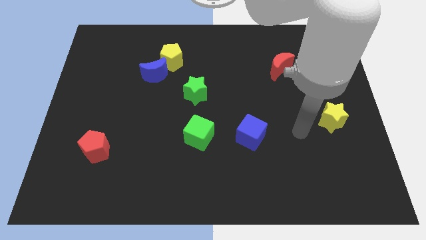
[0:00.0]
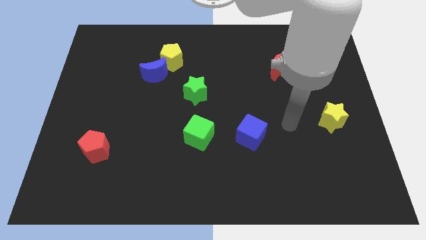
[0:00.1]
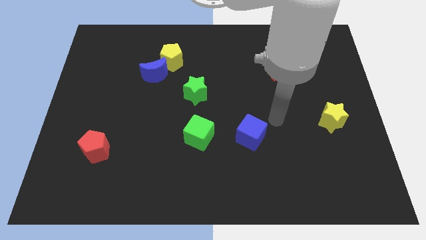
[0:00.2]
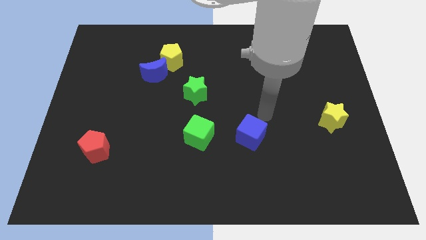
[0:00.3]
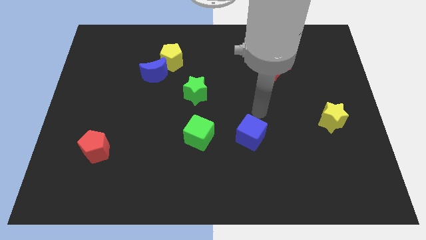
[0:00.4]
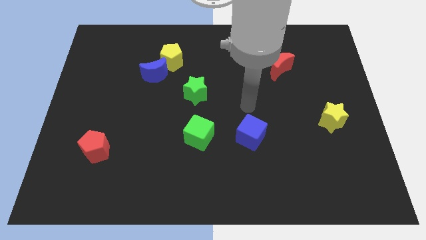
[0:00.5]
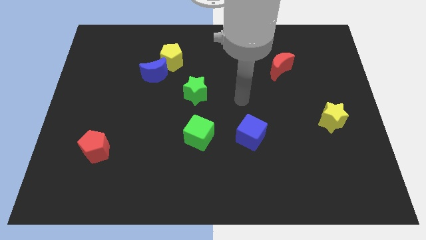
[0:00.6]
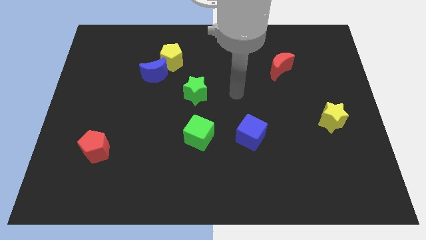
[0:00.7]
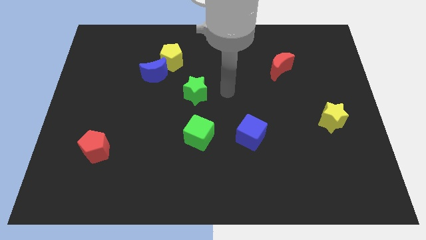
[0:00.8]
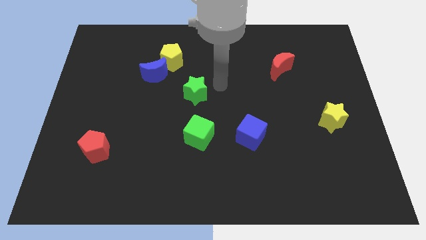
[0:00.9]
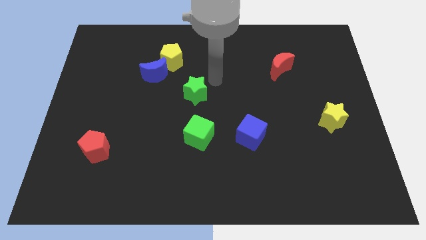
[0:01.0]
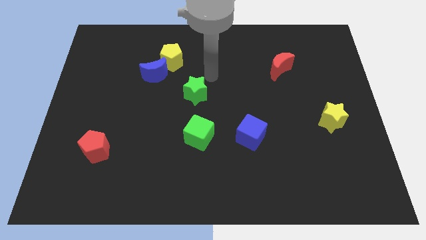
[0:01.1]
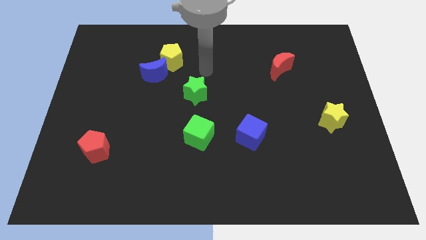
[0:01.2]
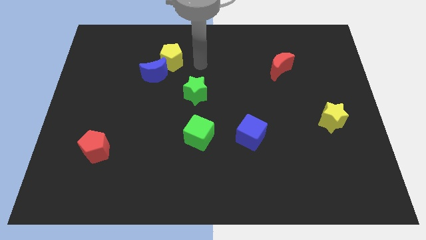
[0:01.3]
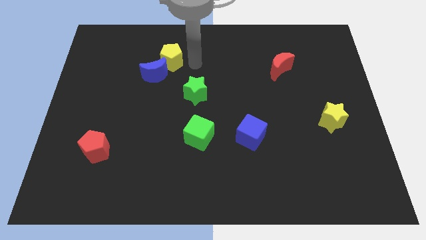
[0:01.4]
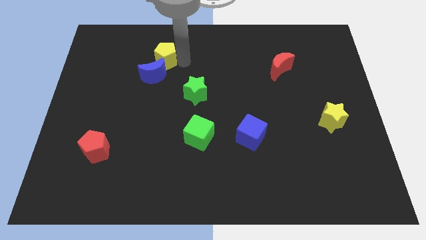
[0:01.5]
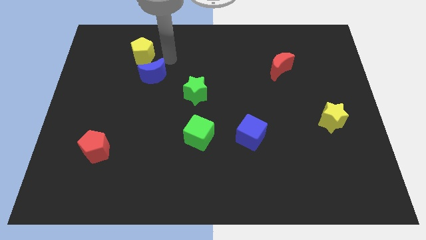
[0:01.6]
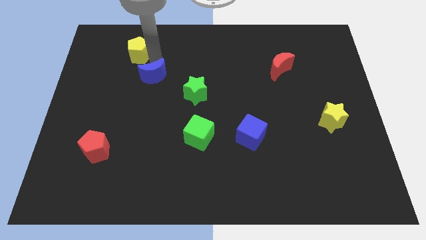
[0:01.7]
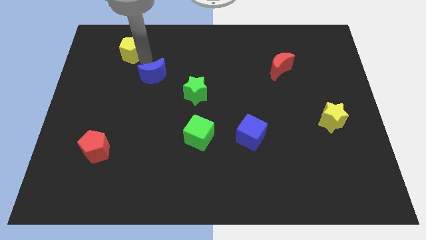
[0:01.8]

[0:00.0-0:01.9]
separate the blue moon from the yellow pentagon

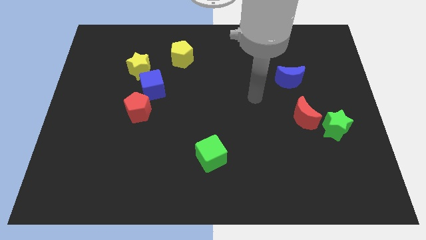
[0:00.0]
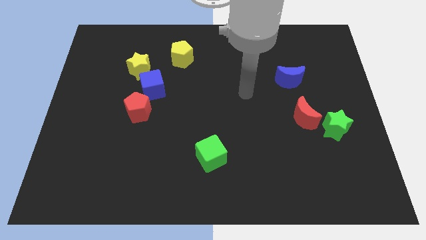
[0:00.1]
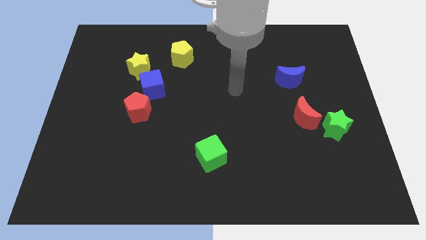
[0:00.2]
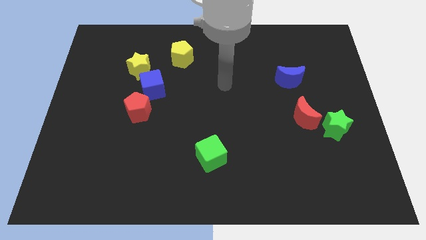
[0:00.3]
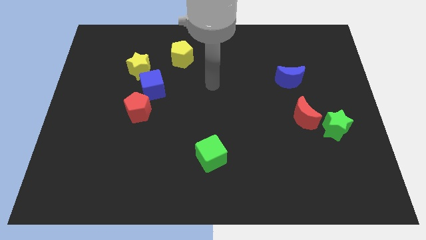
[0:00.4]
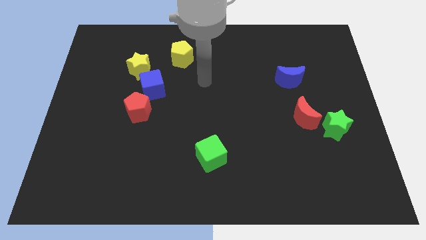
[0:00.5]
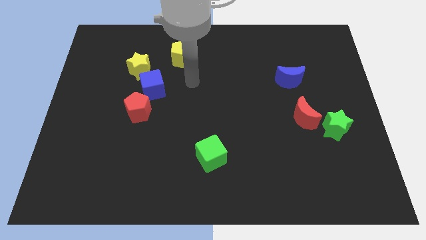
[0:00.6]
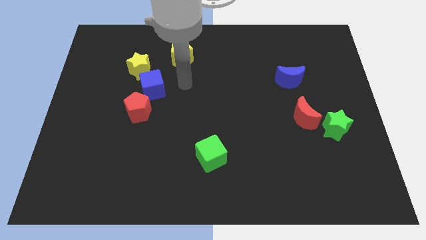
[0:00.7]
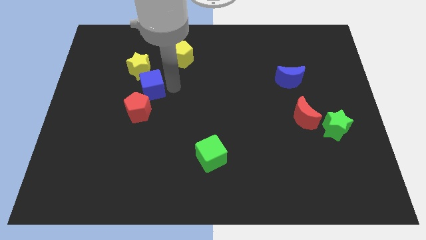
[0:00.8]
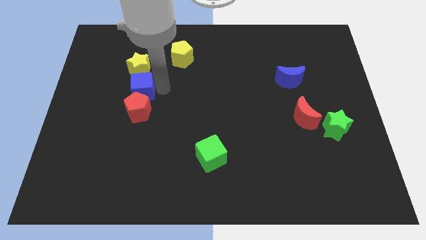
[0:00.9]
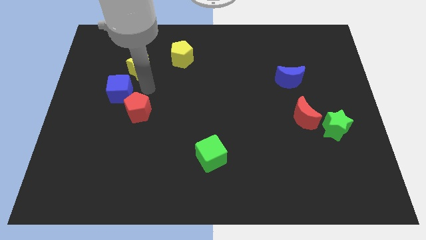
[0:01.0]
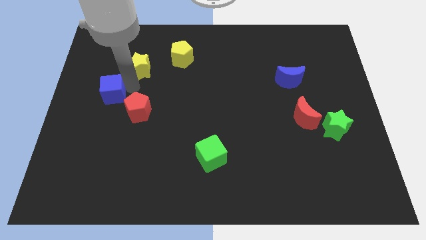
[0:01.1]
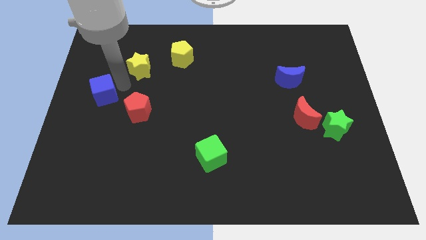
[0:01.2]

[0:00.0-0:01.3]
pull the yellow star apart from the blue cube

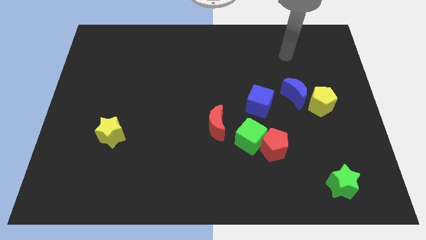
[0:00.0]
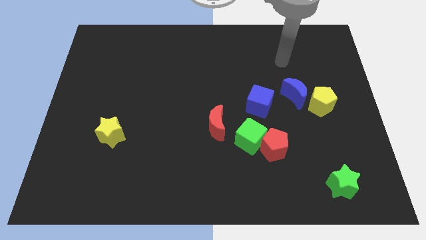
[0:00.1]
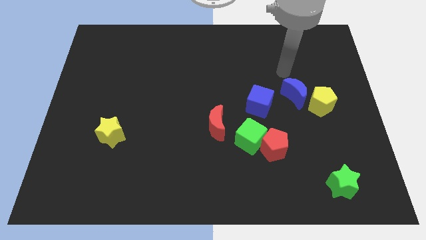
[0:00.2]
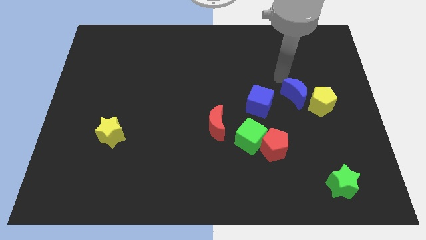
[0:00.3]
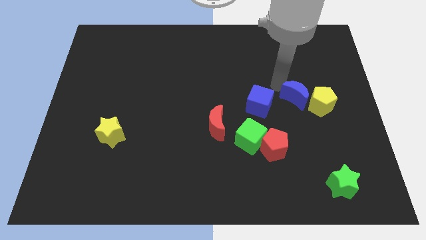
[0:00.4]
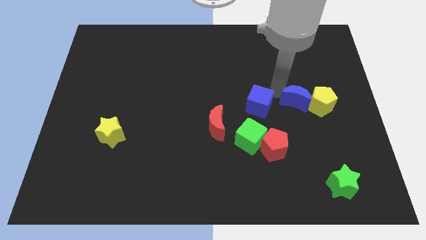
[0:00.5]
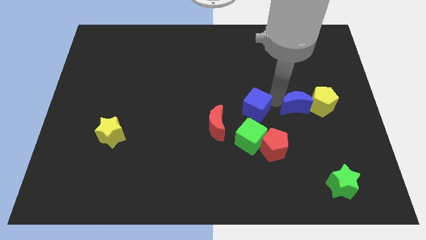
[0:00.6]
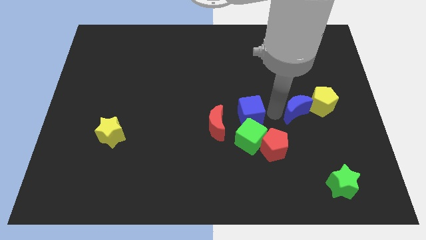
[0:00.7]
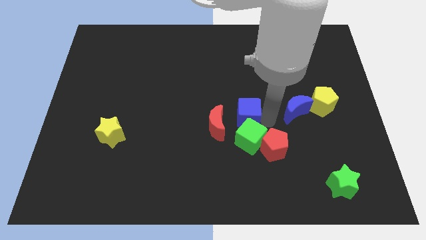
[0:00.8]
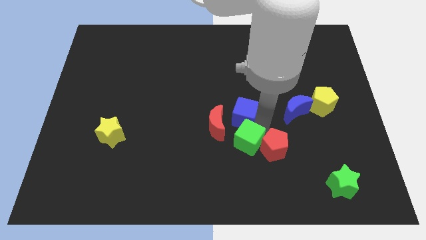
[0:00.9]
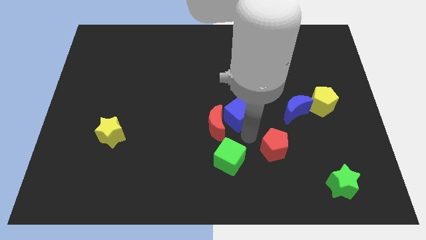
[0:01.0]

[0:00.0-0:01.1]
move the red pentagon away from the green cube

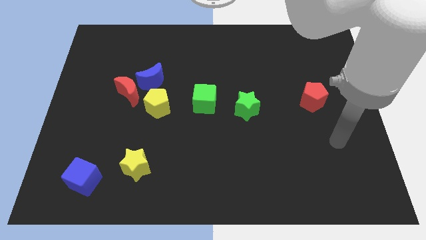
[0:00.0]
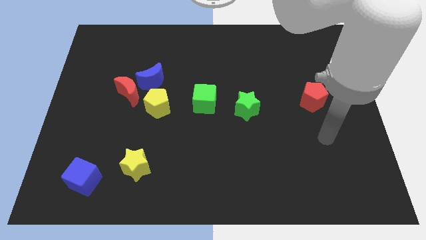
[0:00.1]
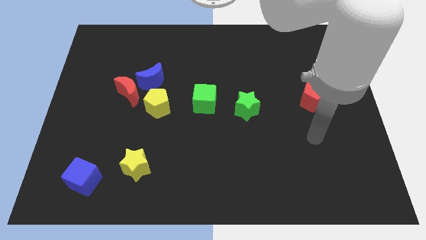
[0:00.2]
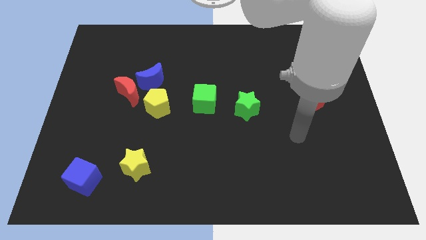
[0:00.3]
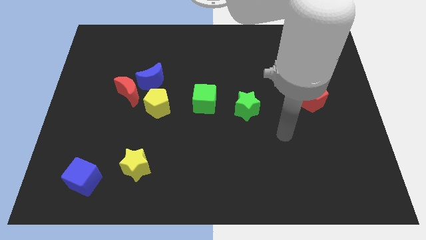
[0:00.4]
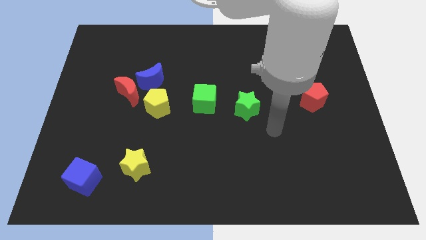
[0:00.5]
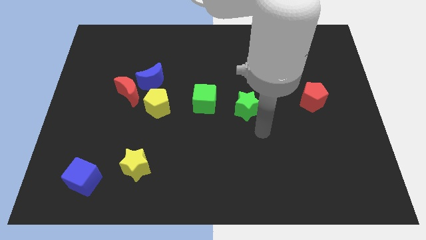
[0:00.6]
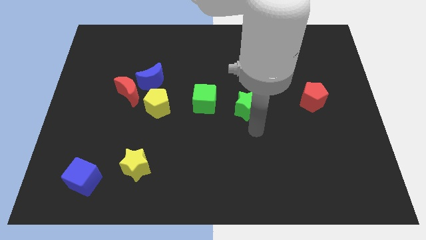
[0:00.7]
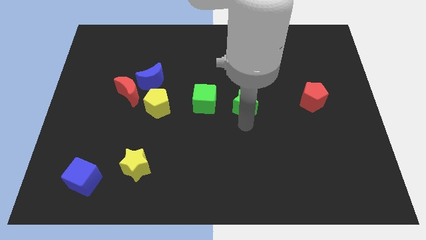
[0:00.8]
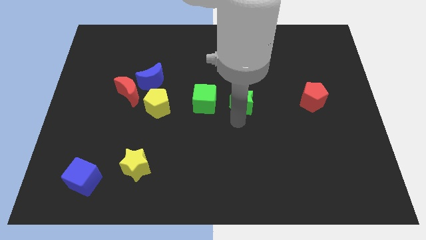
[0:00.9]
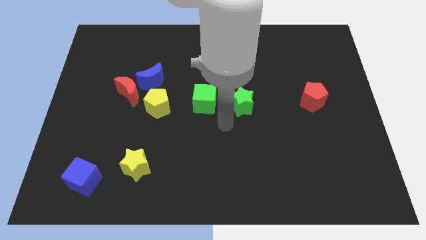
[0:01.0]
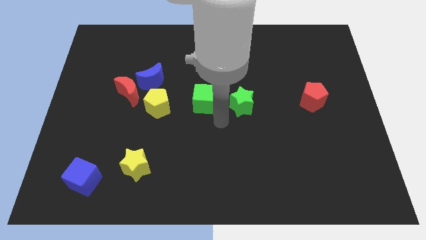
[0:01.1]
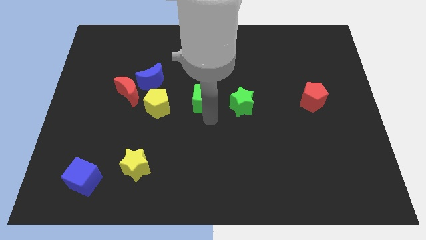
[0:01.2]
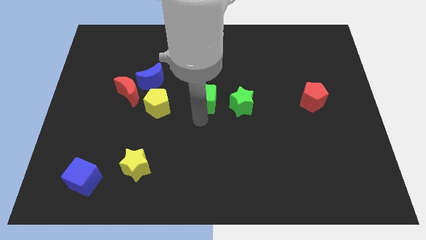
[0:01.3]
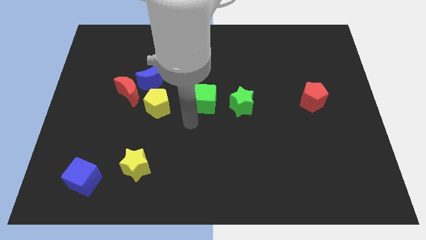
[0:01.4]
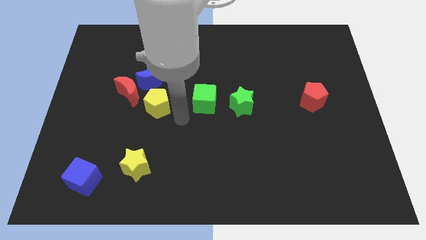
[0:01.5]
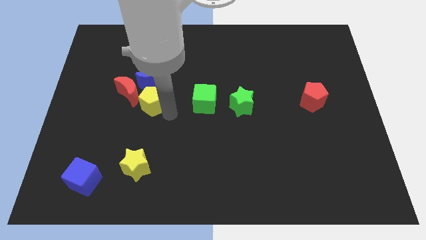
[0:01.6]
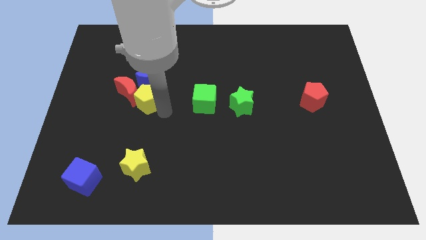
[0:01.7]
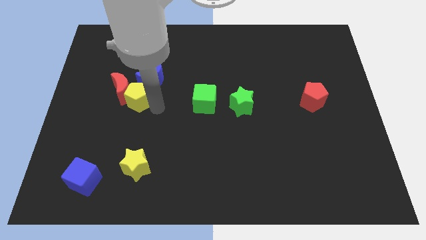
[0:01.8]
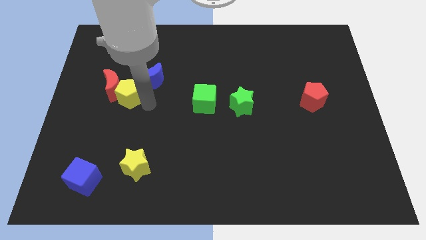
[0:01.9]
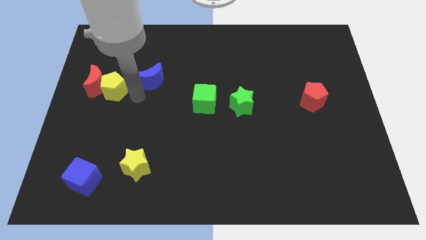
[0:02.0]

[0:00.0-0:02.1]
move the blue moon away from the red moon and yellow pentagon

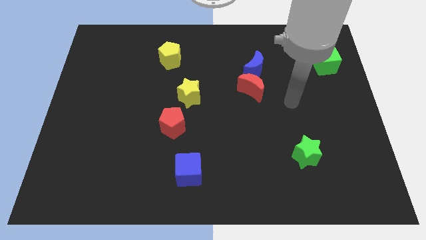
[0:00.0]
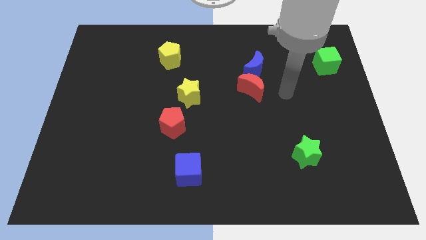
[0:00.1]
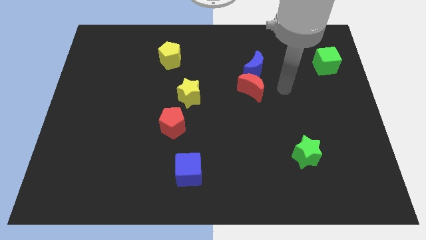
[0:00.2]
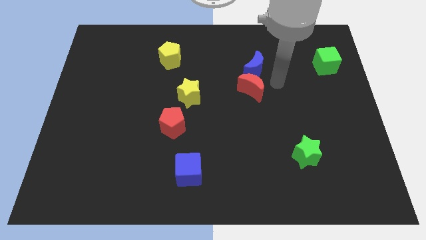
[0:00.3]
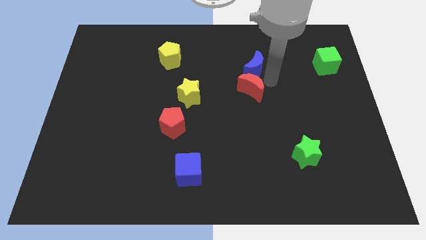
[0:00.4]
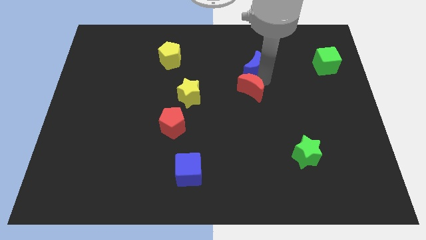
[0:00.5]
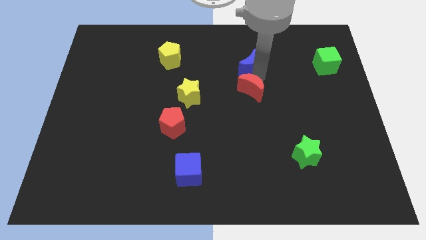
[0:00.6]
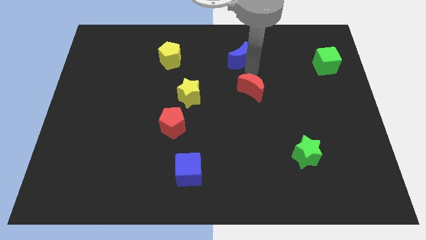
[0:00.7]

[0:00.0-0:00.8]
move the red moon away from the blue moon

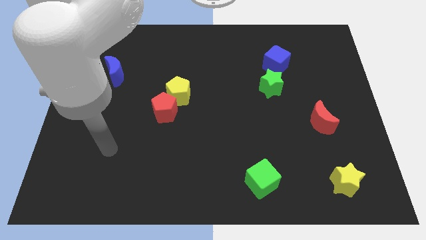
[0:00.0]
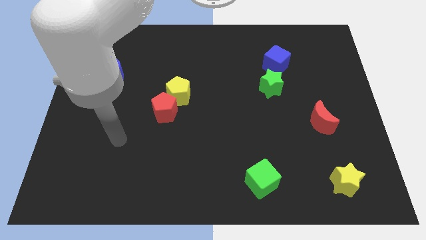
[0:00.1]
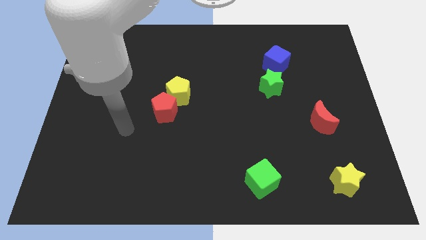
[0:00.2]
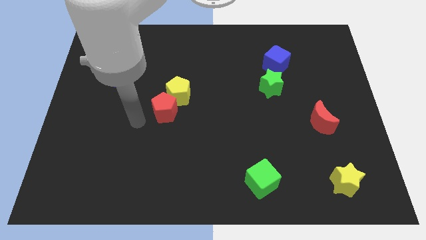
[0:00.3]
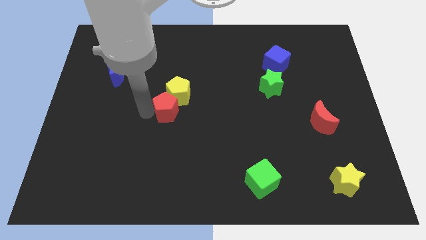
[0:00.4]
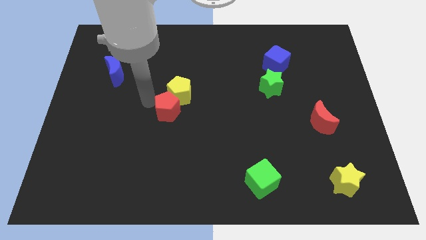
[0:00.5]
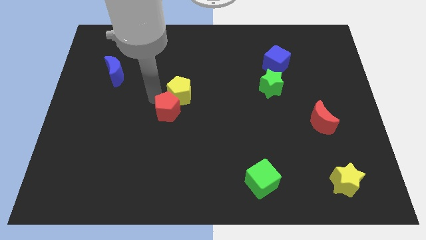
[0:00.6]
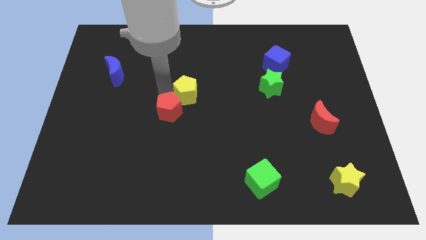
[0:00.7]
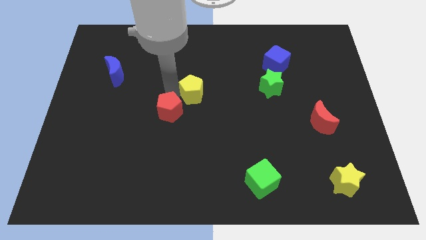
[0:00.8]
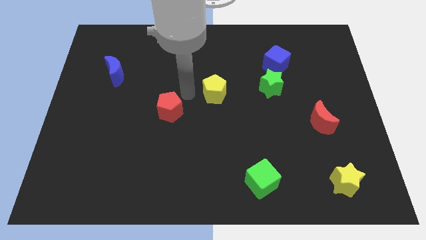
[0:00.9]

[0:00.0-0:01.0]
pull the red pentagon apart from the yellow pentagon

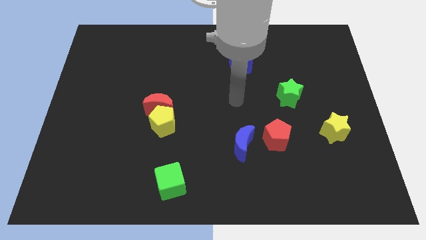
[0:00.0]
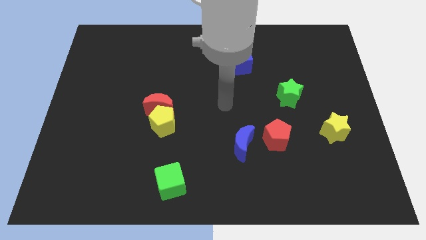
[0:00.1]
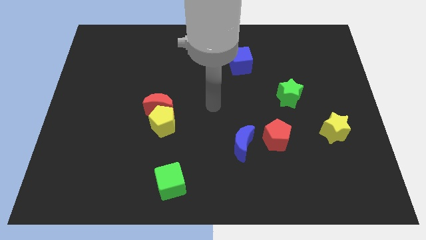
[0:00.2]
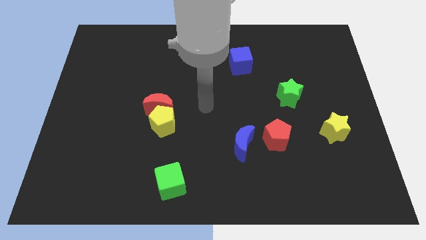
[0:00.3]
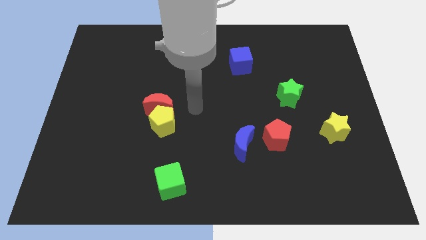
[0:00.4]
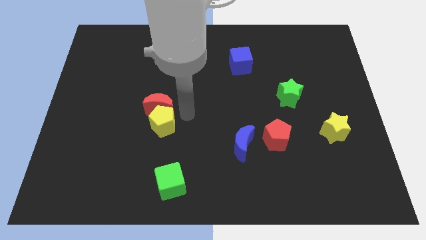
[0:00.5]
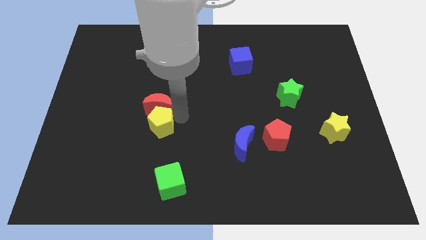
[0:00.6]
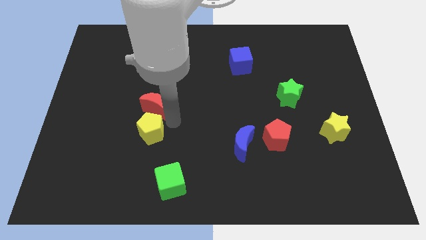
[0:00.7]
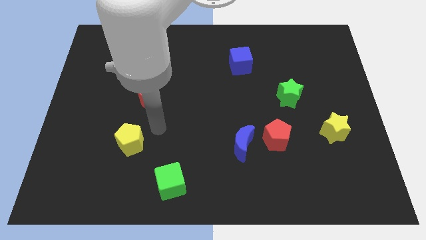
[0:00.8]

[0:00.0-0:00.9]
pull the red moon apart from the yellow pentagon

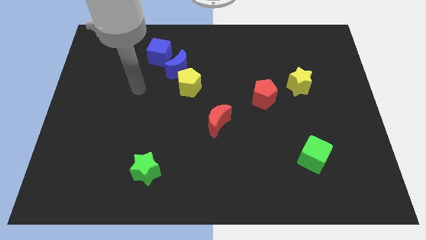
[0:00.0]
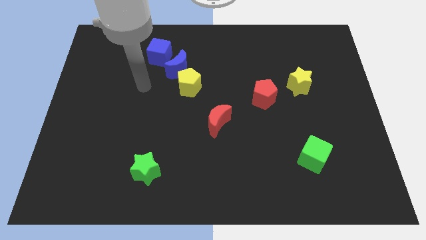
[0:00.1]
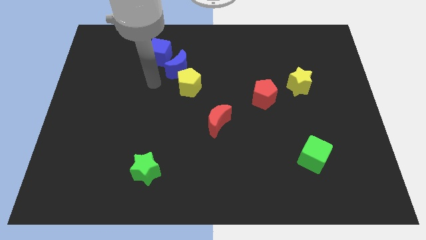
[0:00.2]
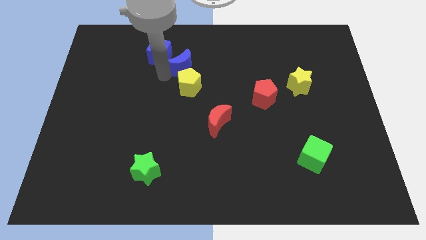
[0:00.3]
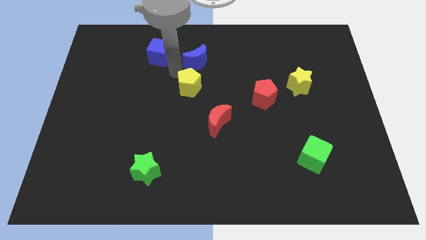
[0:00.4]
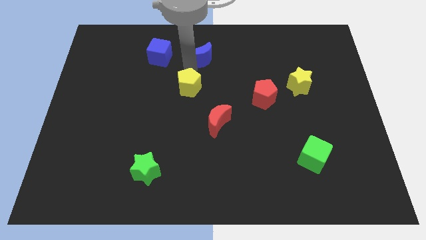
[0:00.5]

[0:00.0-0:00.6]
move the yellow pentagon away from the blue moon
